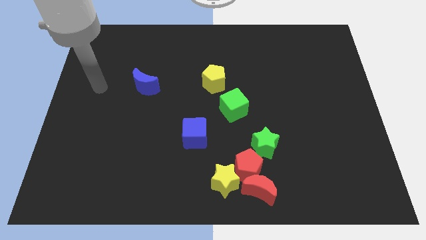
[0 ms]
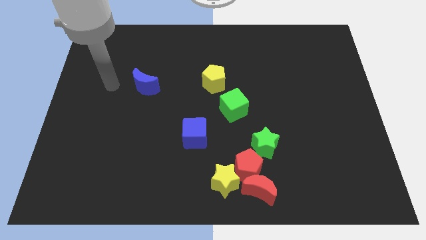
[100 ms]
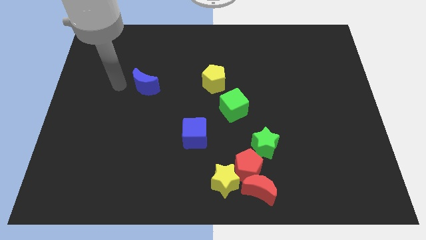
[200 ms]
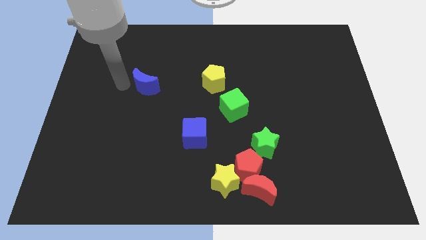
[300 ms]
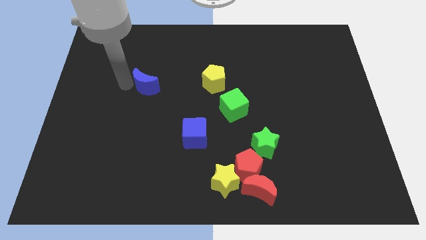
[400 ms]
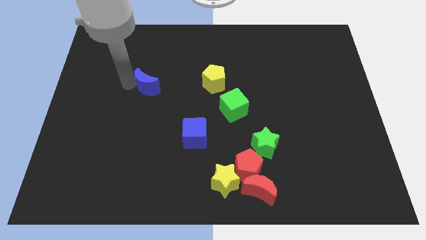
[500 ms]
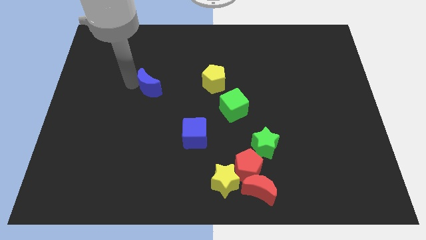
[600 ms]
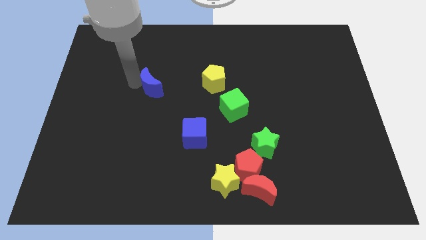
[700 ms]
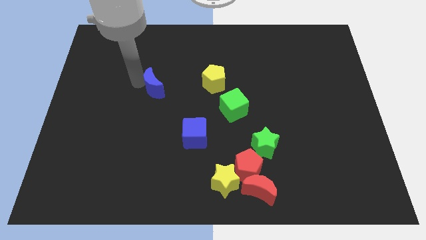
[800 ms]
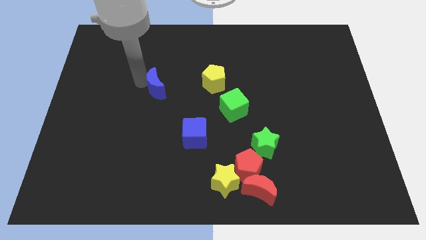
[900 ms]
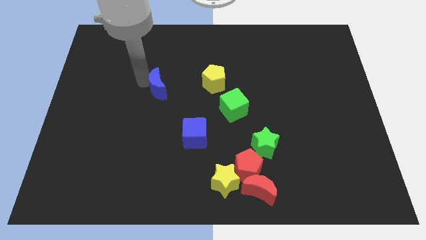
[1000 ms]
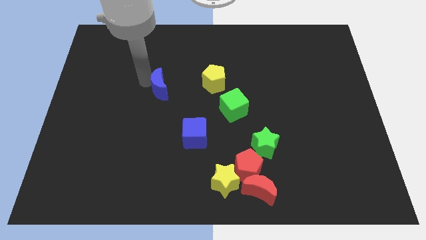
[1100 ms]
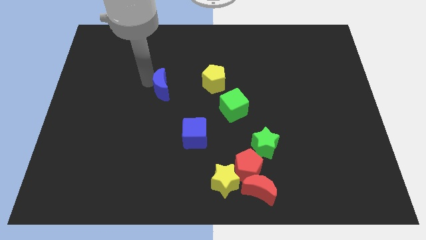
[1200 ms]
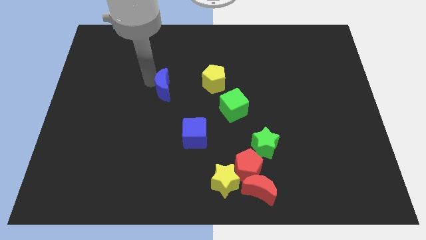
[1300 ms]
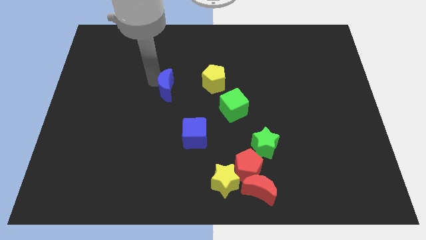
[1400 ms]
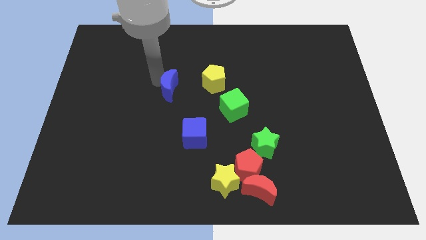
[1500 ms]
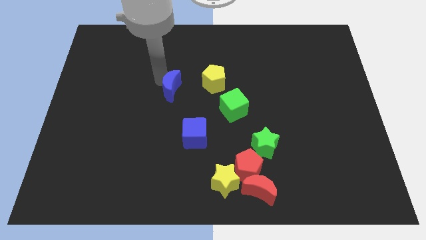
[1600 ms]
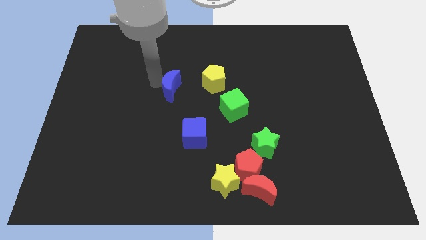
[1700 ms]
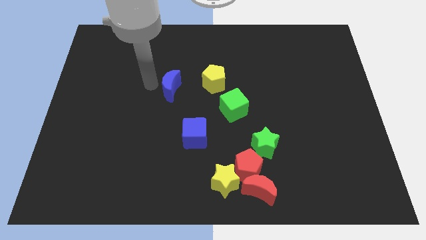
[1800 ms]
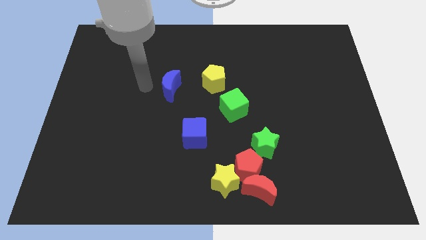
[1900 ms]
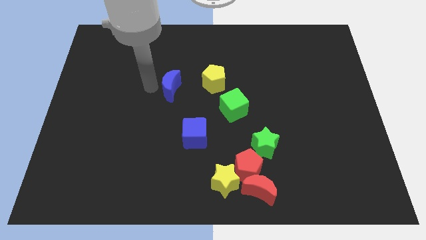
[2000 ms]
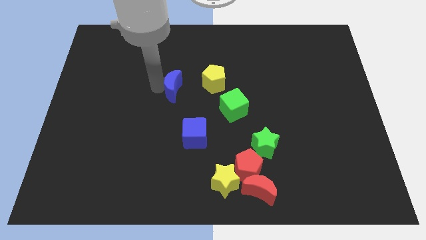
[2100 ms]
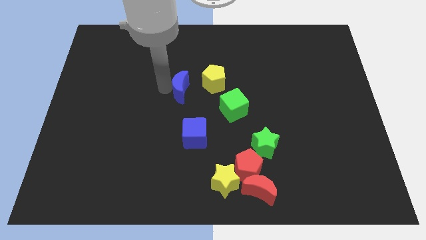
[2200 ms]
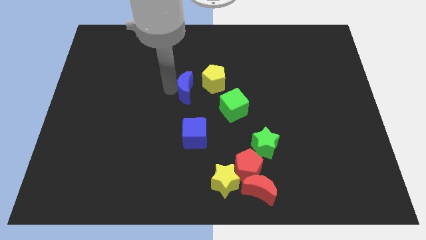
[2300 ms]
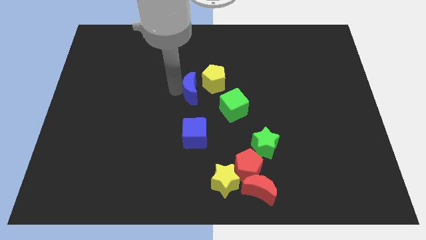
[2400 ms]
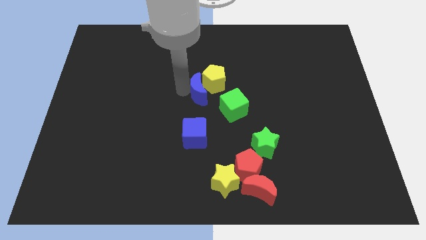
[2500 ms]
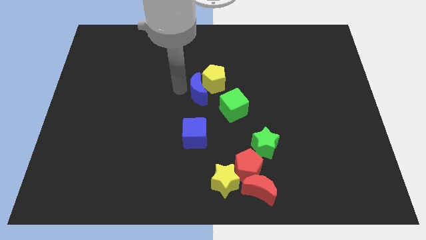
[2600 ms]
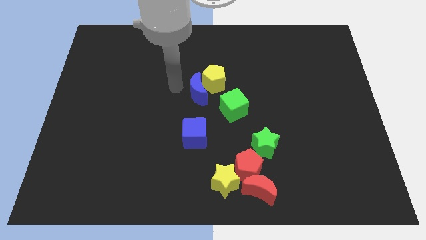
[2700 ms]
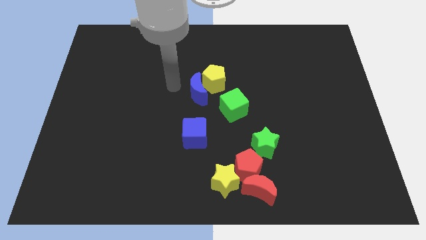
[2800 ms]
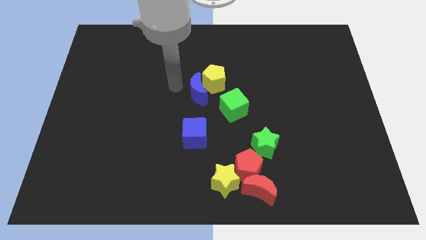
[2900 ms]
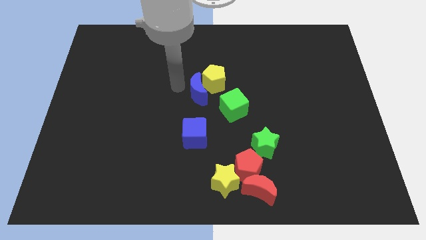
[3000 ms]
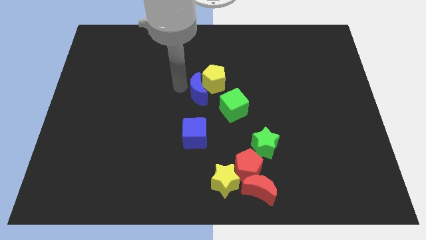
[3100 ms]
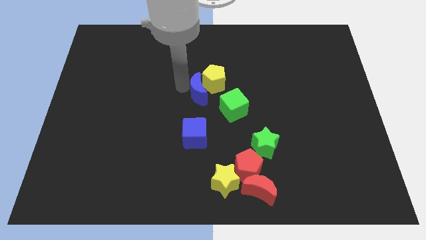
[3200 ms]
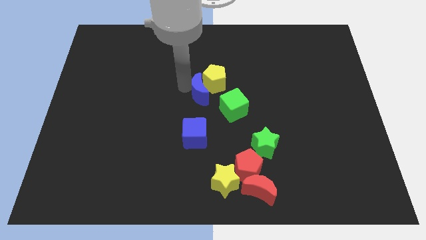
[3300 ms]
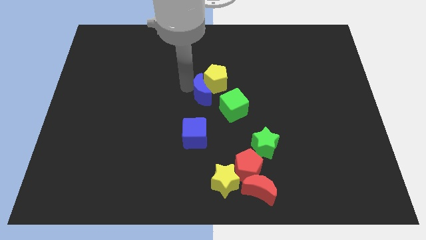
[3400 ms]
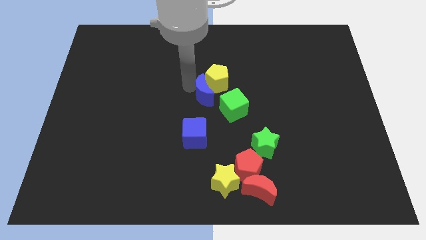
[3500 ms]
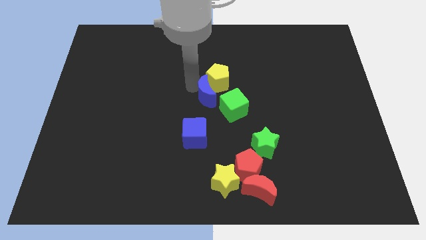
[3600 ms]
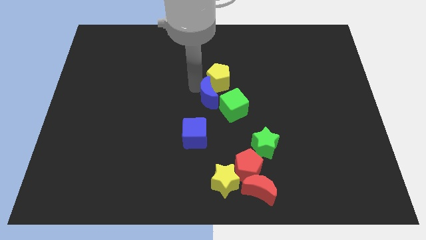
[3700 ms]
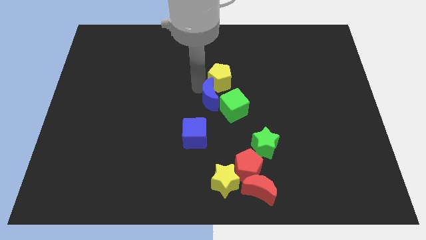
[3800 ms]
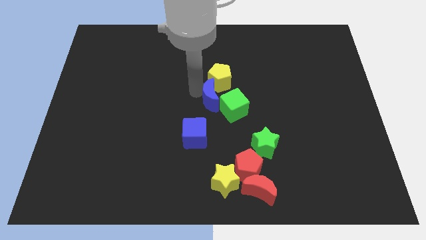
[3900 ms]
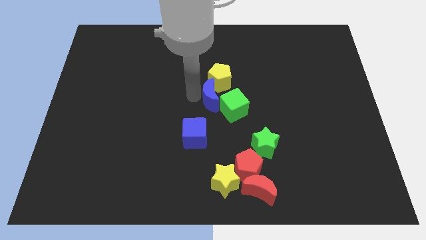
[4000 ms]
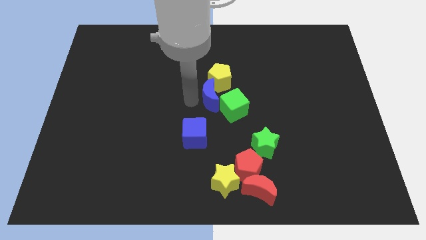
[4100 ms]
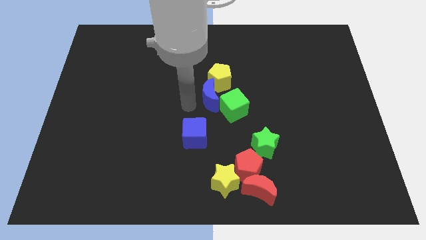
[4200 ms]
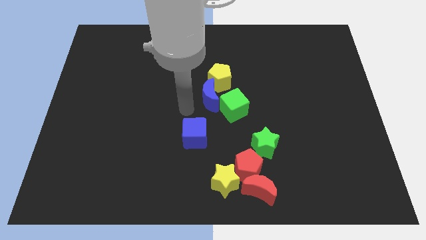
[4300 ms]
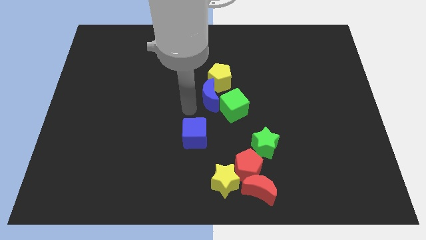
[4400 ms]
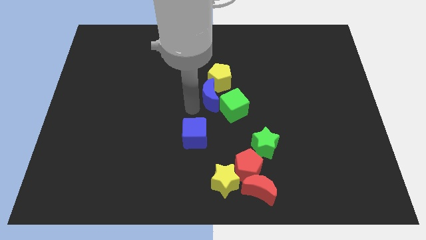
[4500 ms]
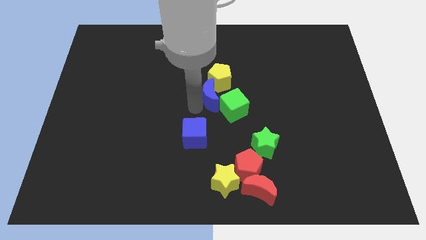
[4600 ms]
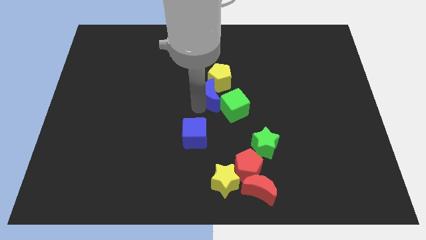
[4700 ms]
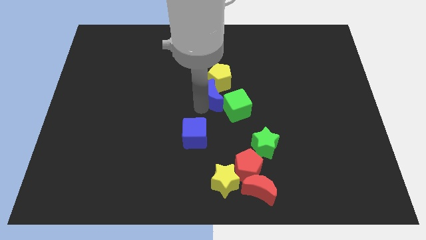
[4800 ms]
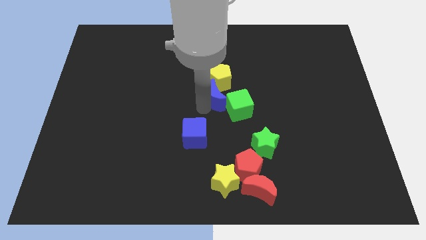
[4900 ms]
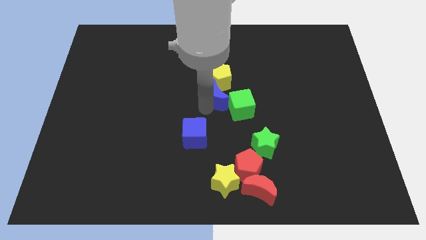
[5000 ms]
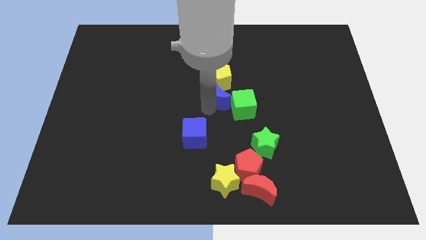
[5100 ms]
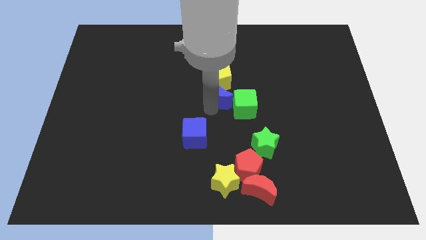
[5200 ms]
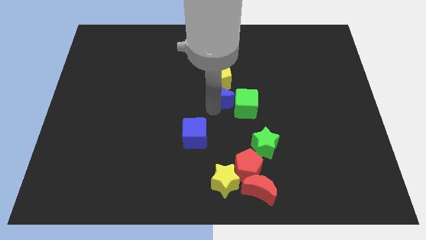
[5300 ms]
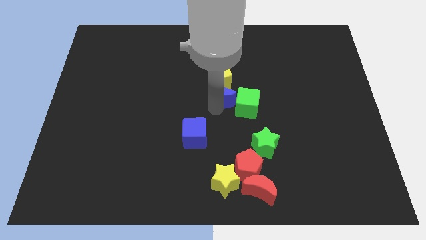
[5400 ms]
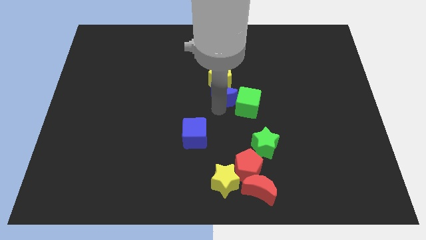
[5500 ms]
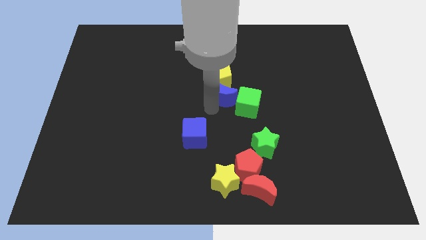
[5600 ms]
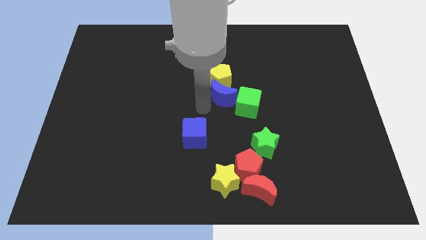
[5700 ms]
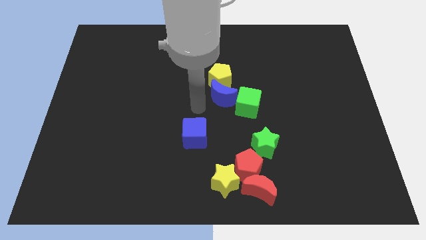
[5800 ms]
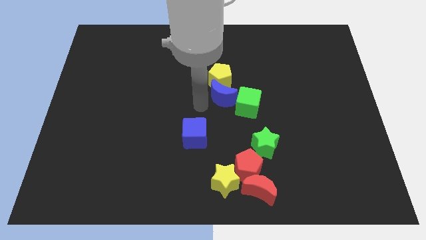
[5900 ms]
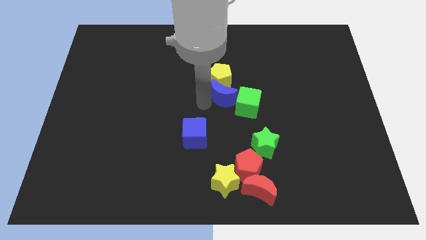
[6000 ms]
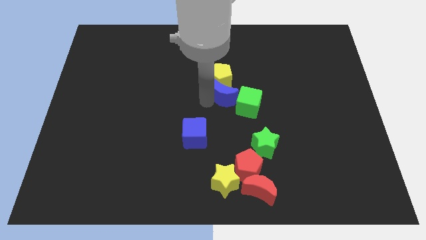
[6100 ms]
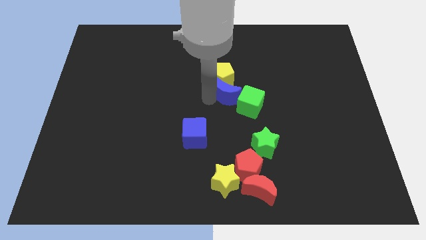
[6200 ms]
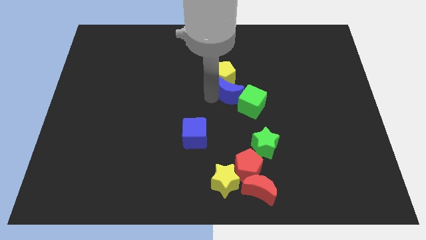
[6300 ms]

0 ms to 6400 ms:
move the blue moon right

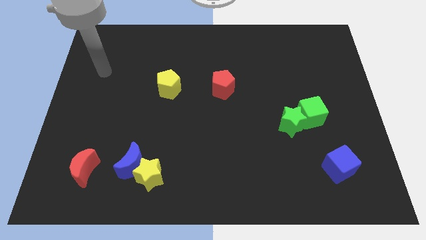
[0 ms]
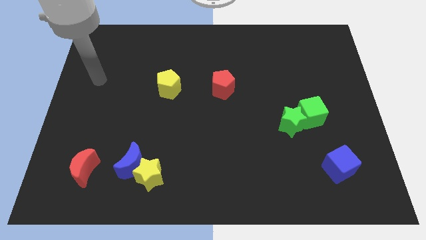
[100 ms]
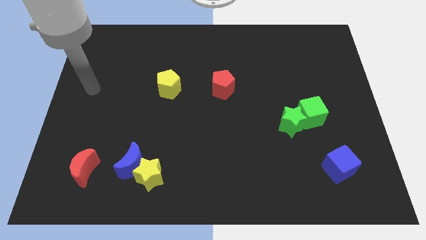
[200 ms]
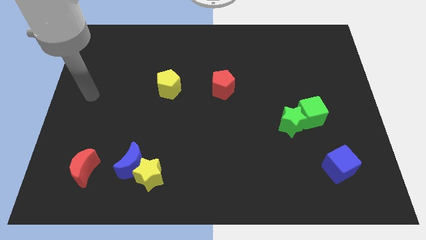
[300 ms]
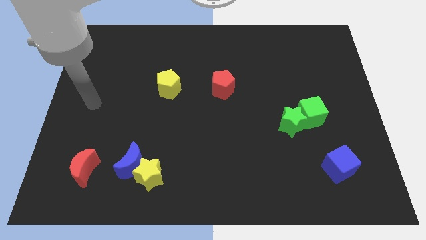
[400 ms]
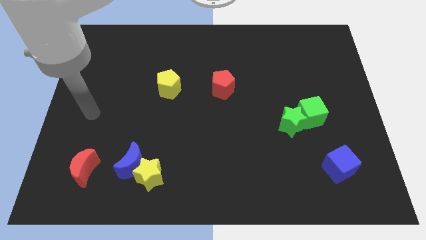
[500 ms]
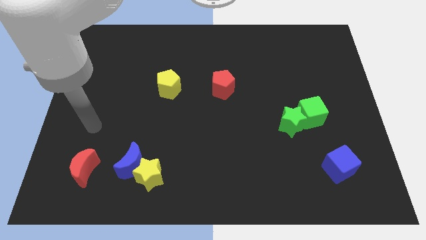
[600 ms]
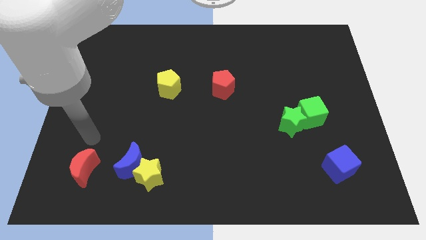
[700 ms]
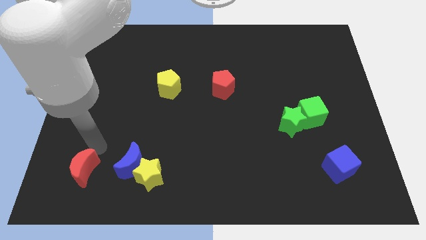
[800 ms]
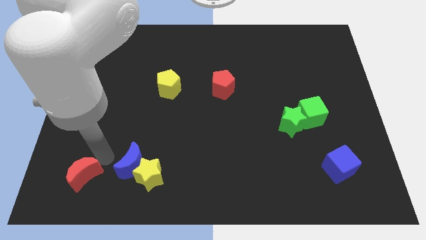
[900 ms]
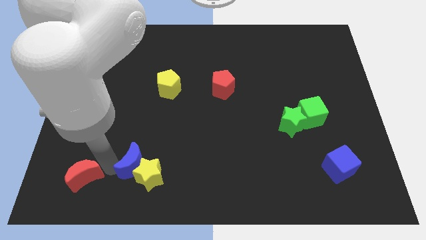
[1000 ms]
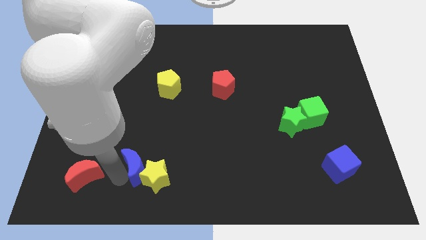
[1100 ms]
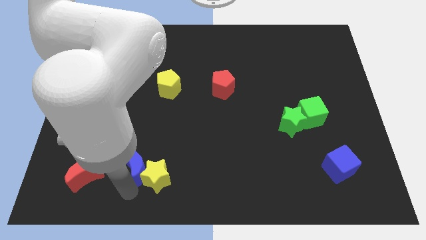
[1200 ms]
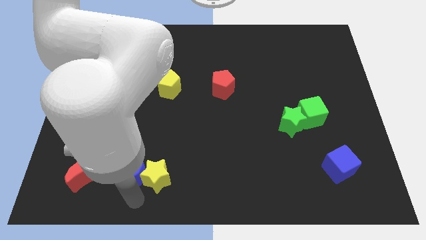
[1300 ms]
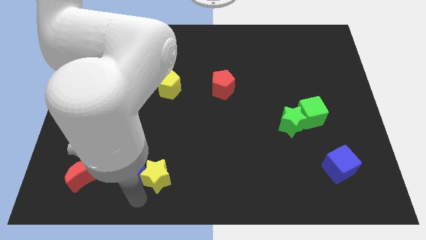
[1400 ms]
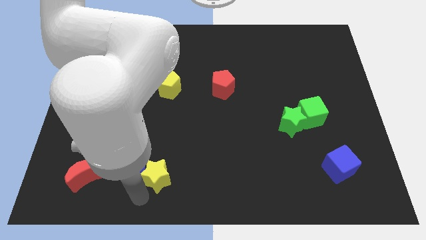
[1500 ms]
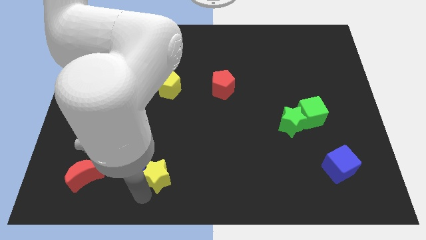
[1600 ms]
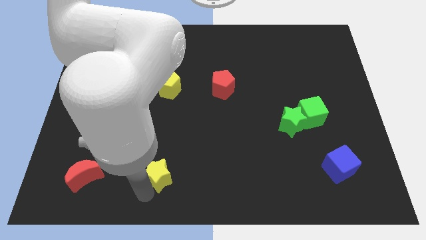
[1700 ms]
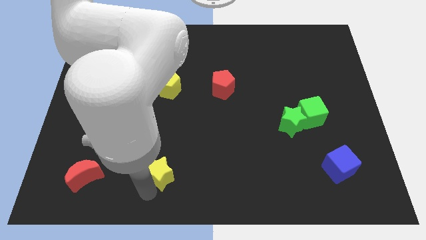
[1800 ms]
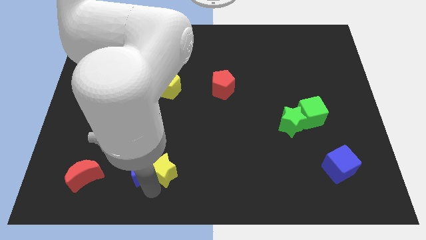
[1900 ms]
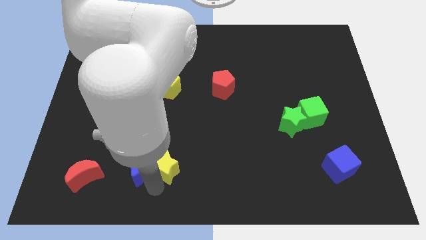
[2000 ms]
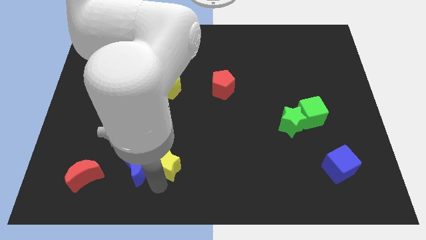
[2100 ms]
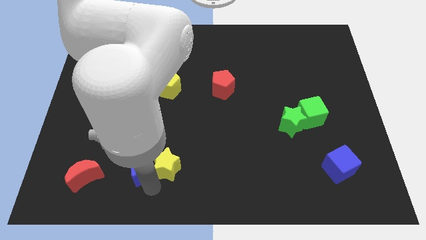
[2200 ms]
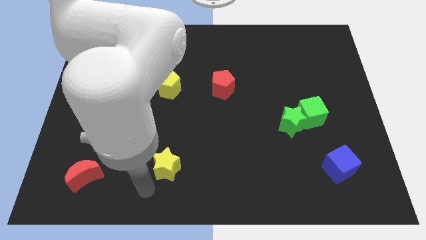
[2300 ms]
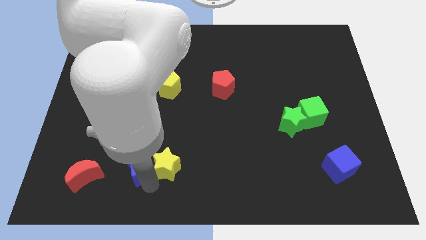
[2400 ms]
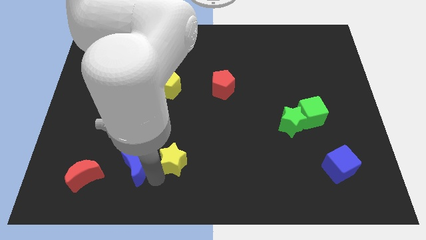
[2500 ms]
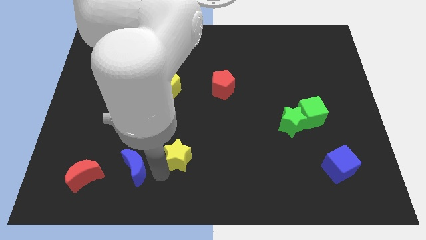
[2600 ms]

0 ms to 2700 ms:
push the yellow star upwards and right diagonally somewhat
